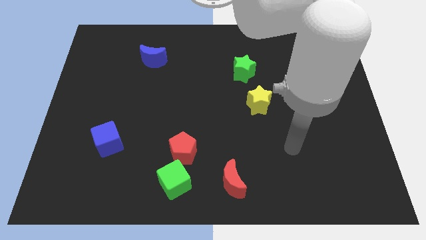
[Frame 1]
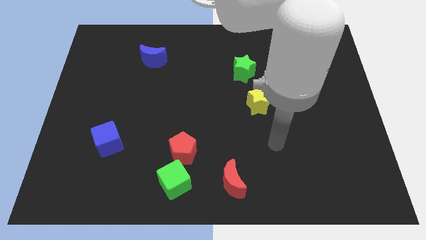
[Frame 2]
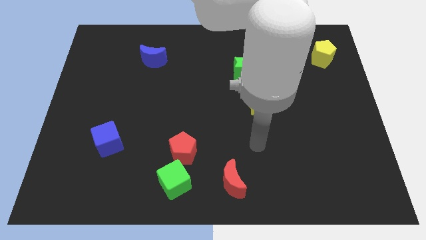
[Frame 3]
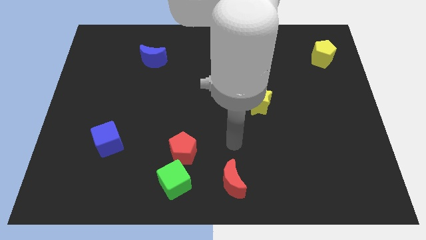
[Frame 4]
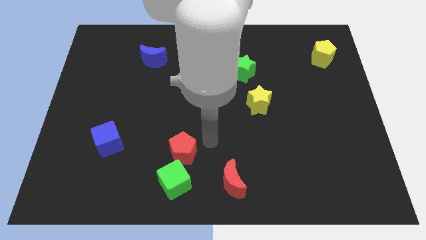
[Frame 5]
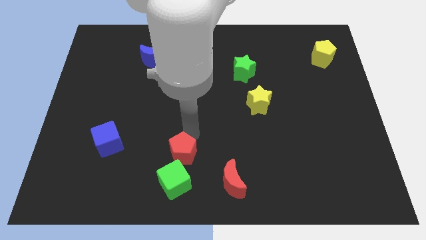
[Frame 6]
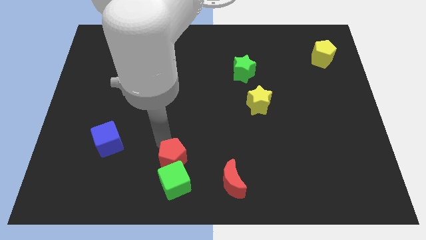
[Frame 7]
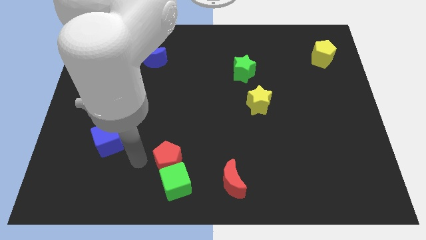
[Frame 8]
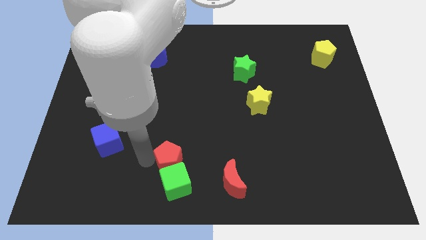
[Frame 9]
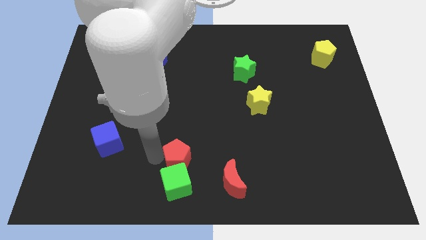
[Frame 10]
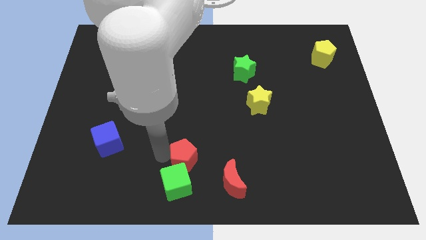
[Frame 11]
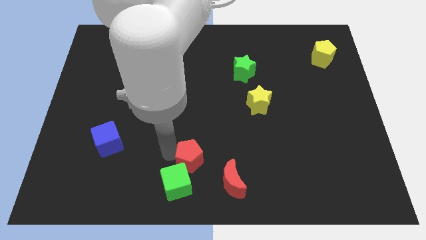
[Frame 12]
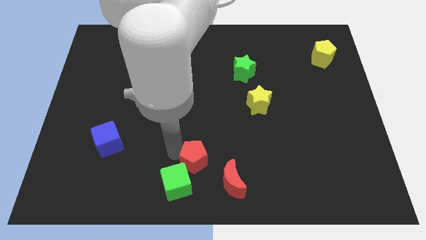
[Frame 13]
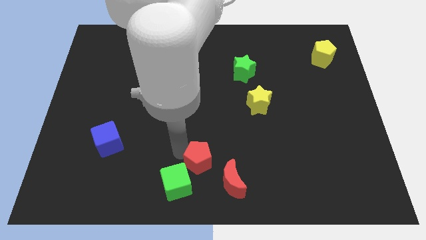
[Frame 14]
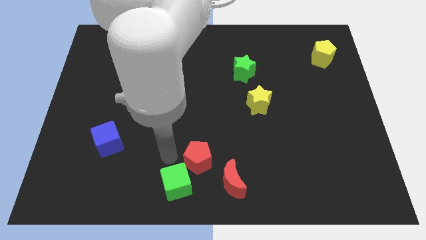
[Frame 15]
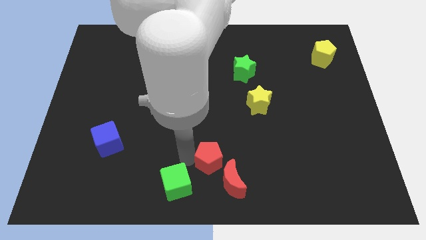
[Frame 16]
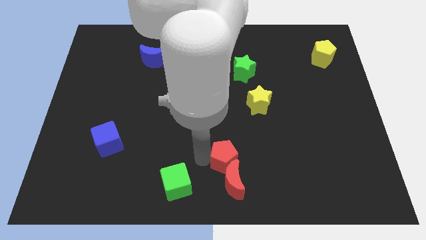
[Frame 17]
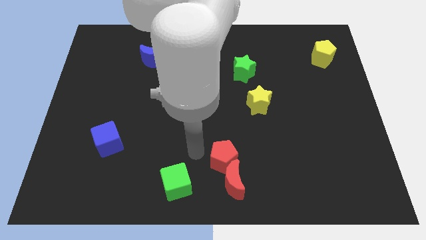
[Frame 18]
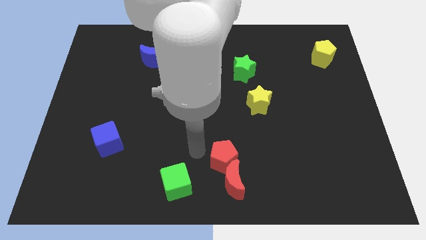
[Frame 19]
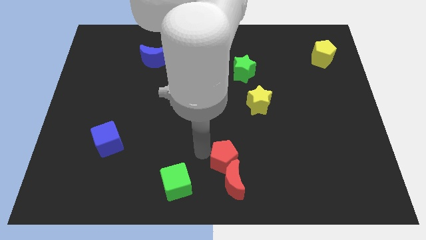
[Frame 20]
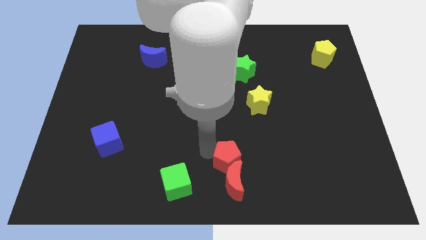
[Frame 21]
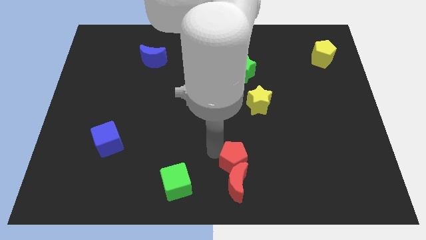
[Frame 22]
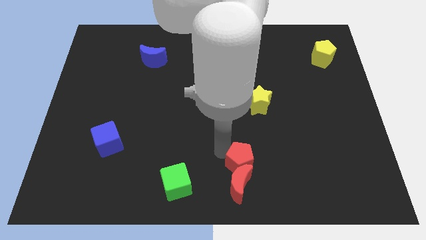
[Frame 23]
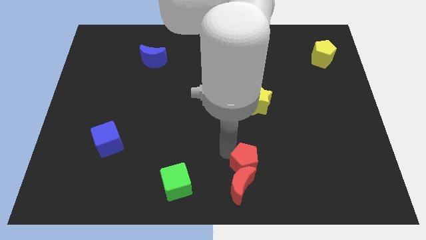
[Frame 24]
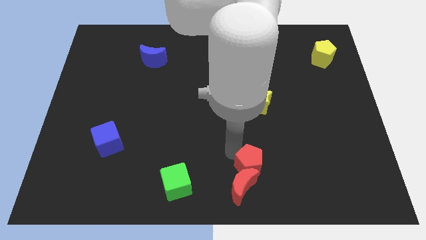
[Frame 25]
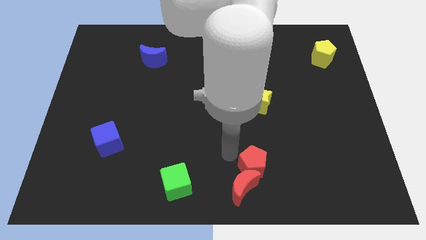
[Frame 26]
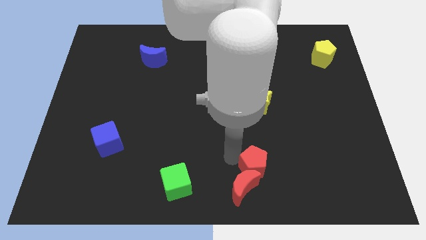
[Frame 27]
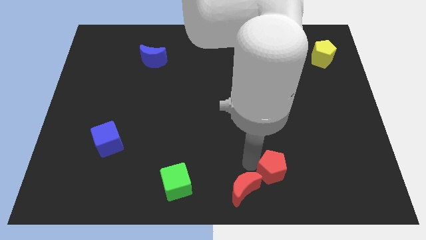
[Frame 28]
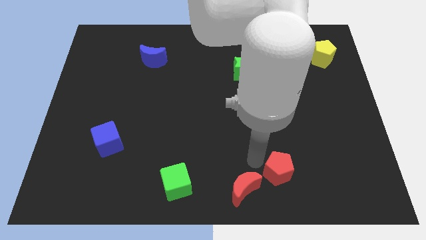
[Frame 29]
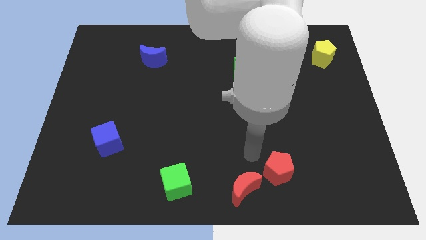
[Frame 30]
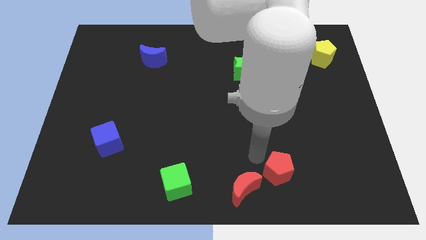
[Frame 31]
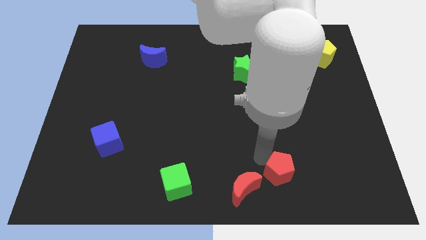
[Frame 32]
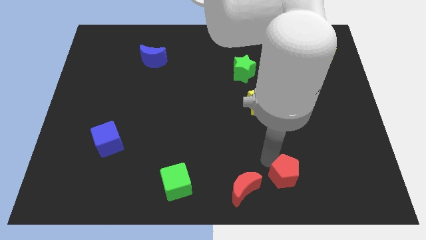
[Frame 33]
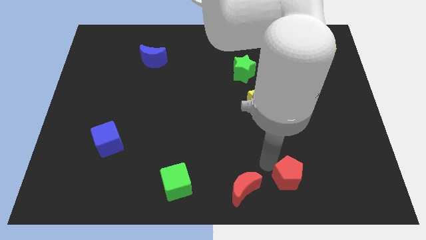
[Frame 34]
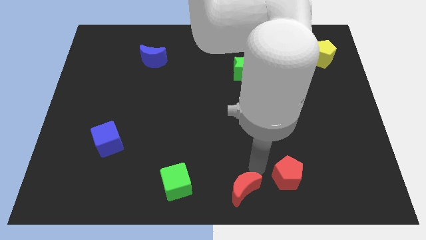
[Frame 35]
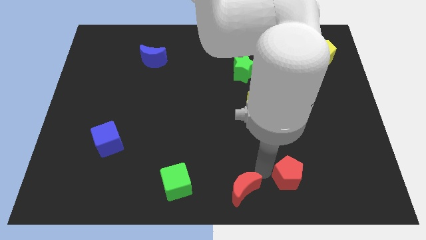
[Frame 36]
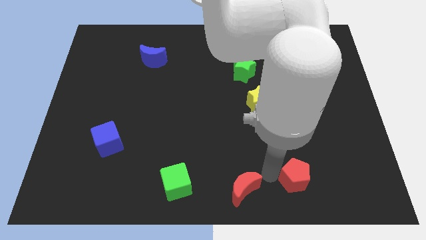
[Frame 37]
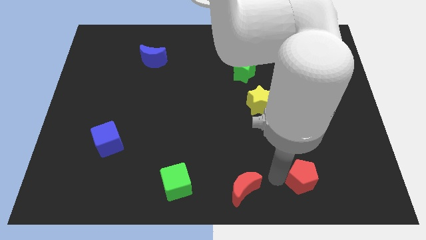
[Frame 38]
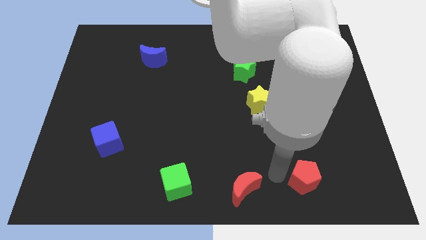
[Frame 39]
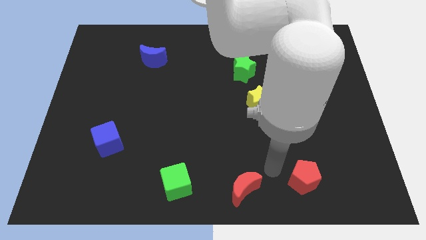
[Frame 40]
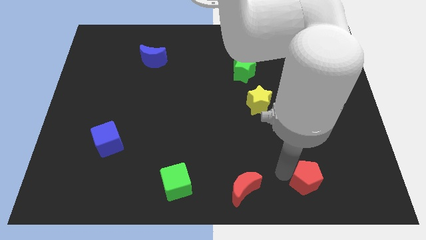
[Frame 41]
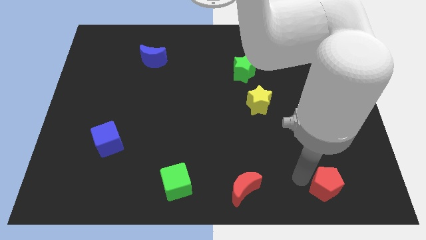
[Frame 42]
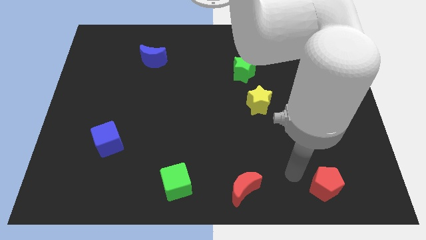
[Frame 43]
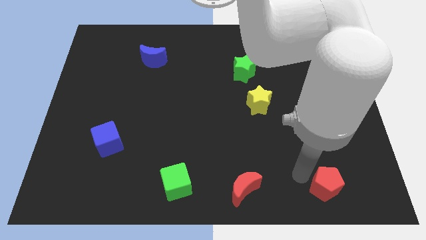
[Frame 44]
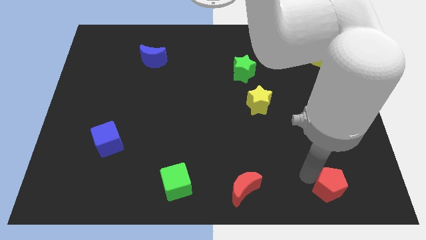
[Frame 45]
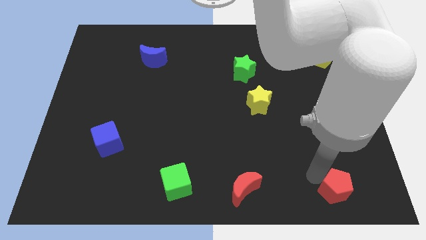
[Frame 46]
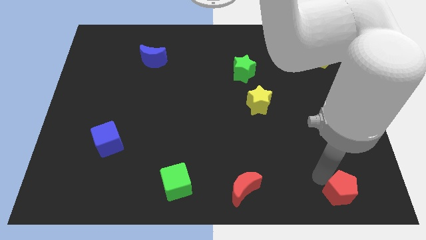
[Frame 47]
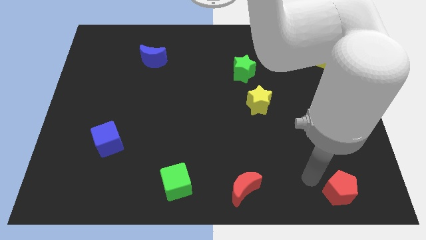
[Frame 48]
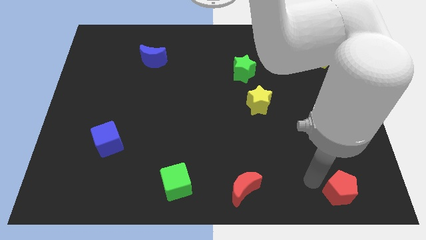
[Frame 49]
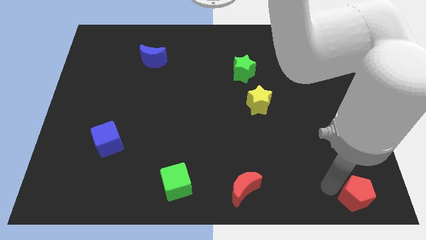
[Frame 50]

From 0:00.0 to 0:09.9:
slide the red pentagon to the bottom right of the board
